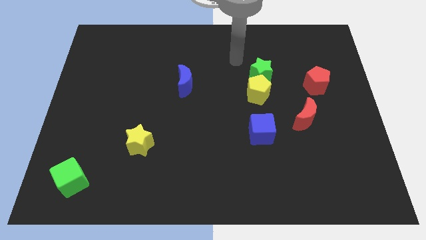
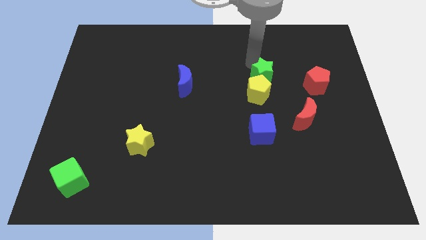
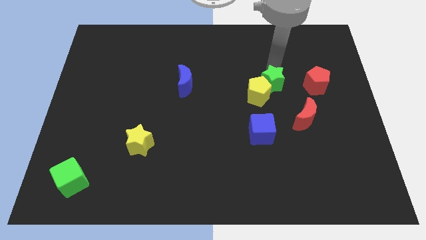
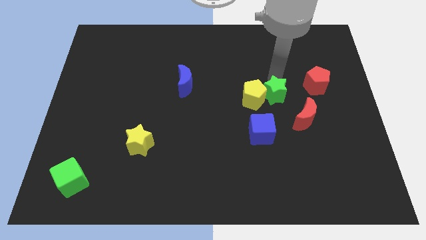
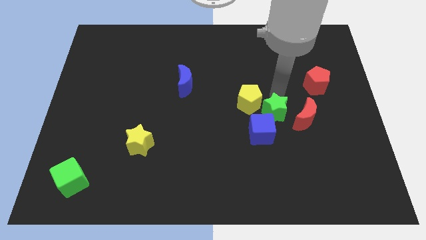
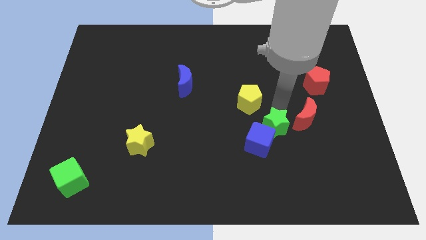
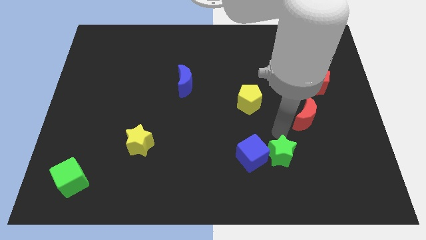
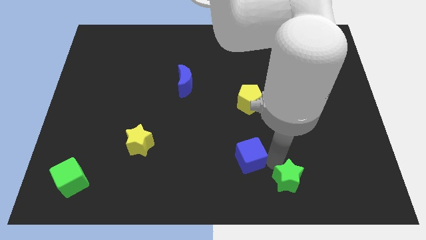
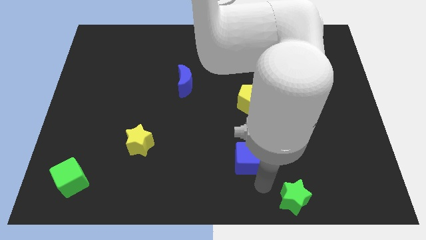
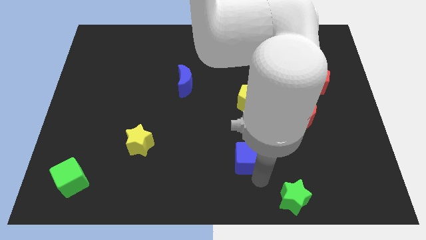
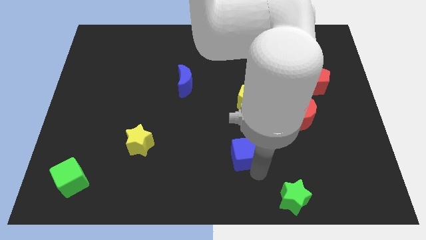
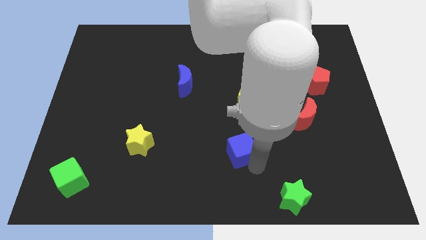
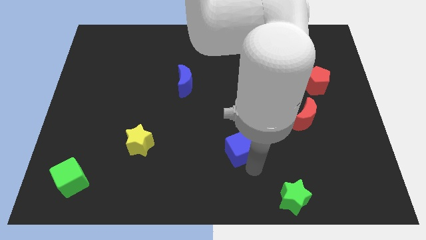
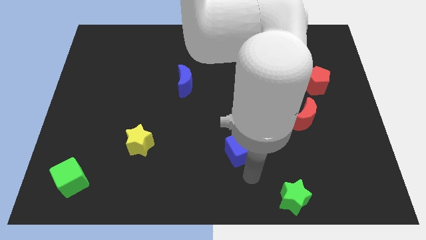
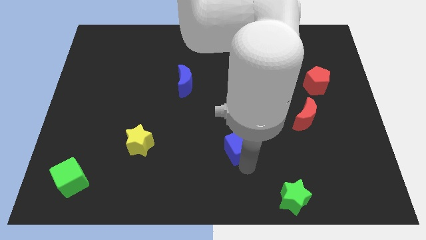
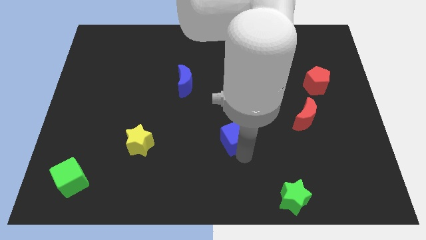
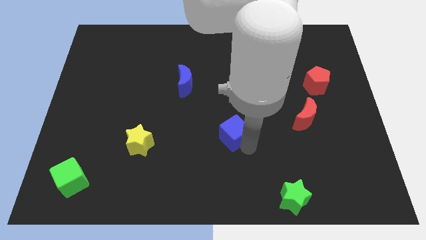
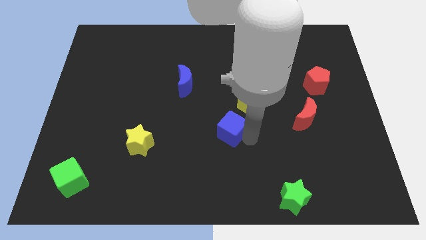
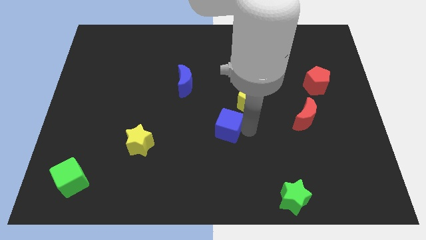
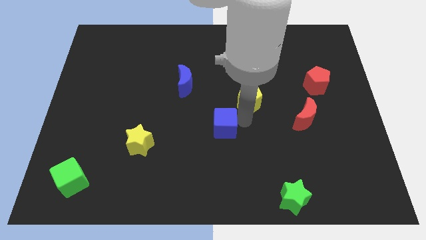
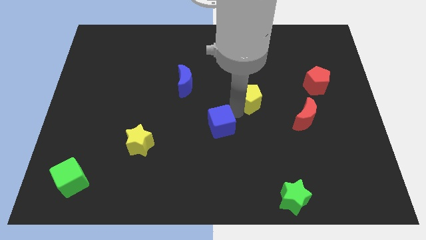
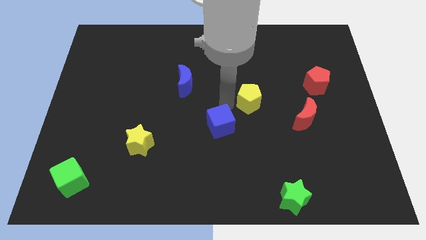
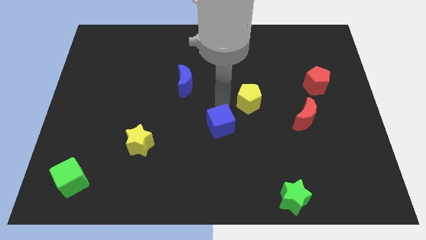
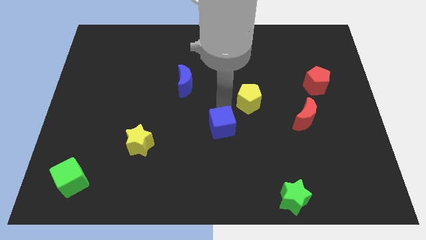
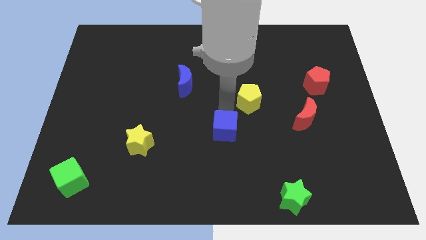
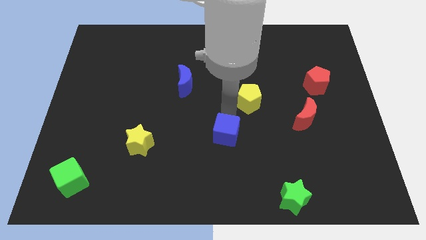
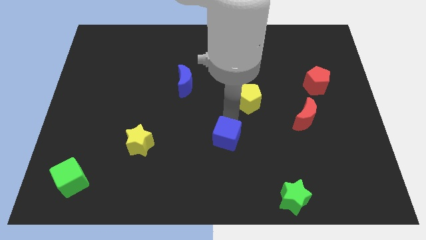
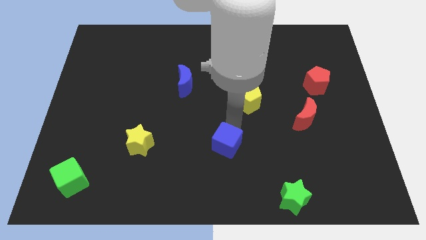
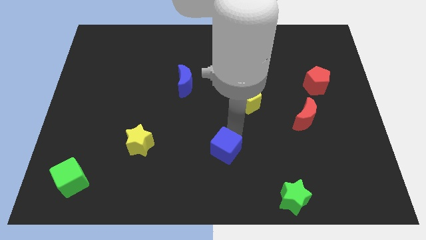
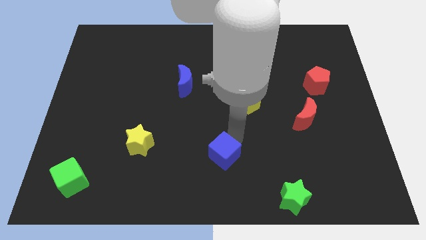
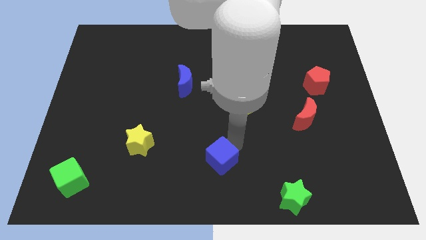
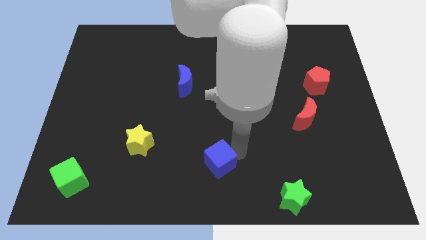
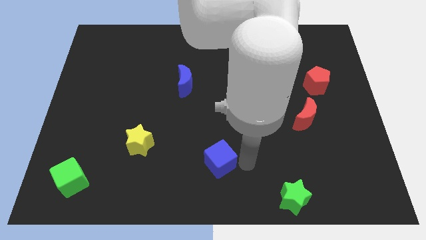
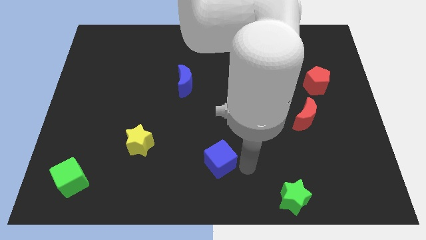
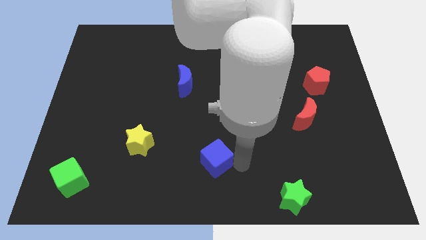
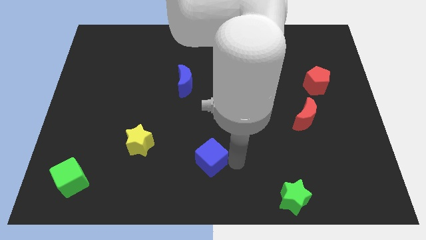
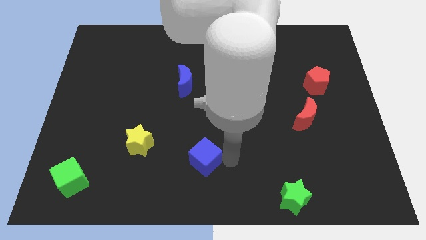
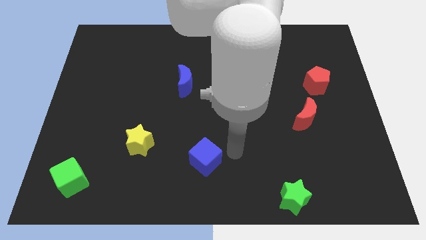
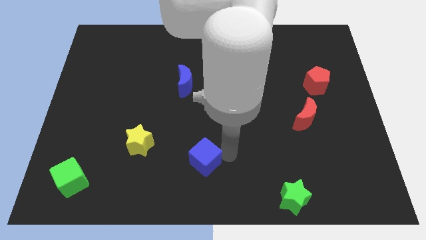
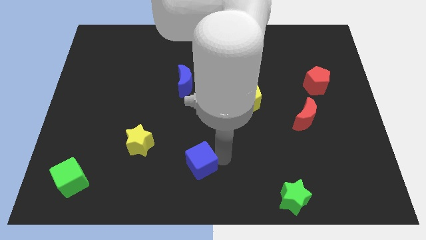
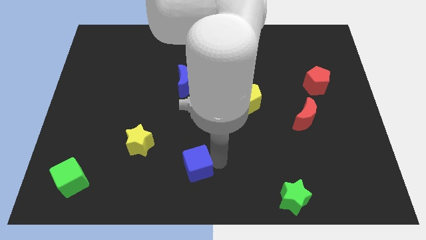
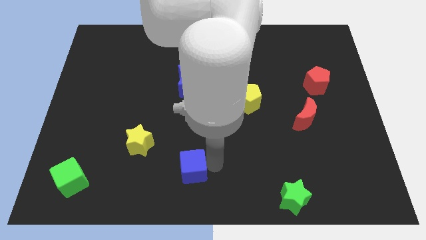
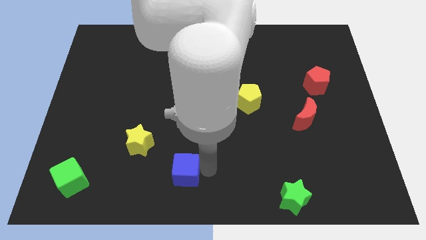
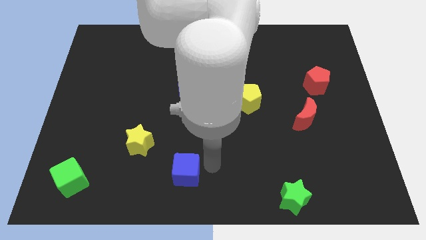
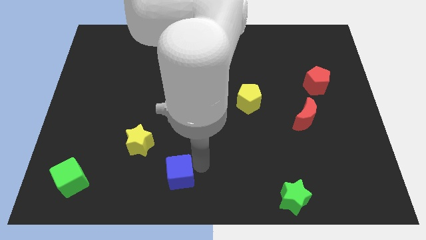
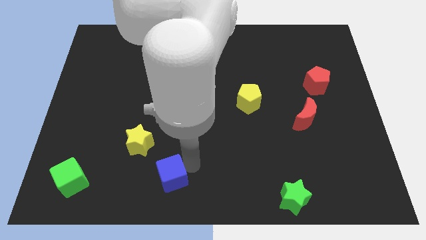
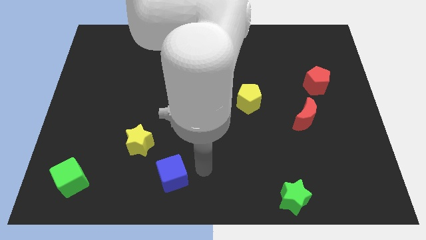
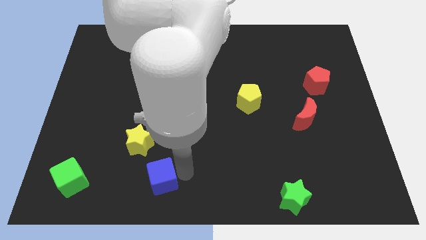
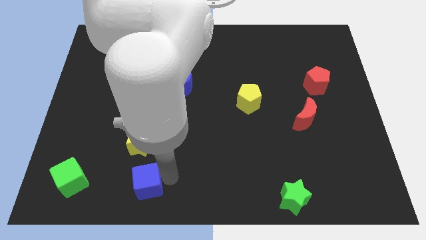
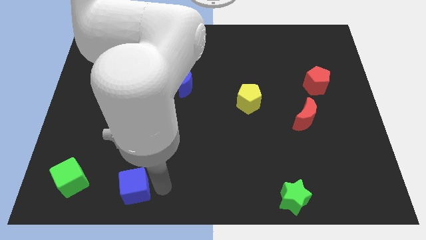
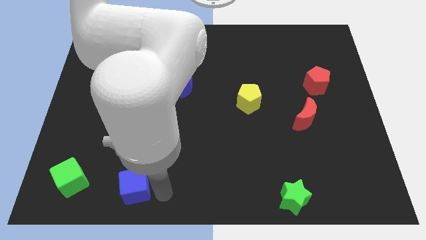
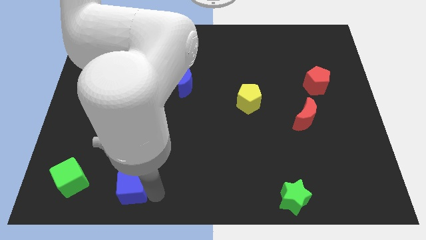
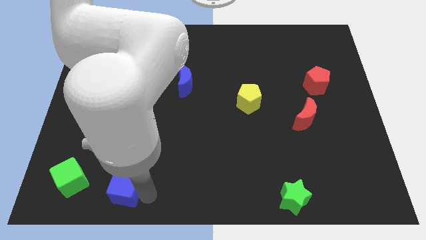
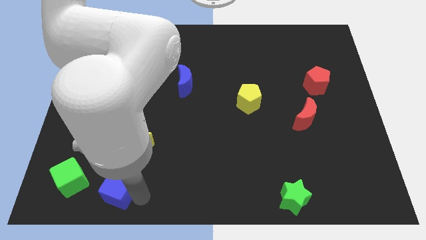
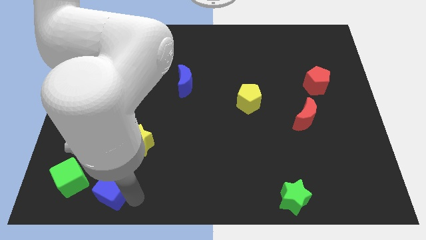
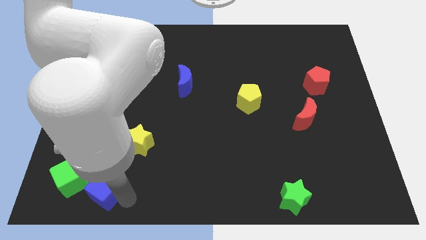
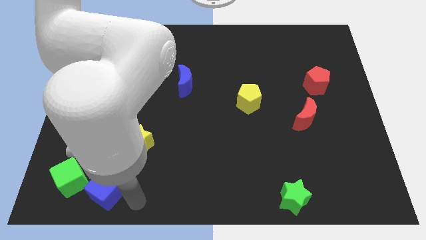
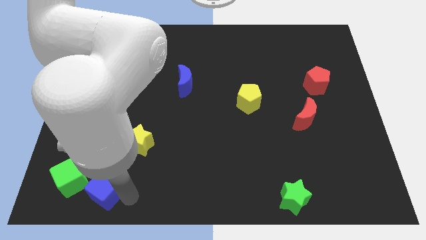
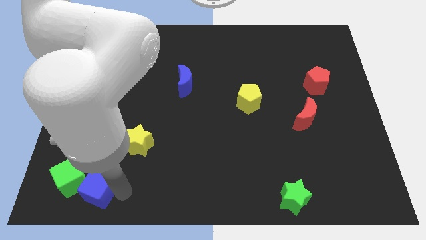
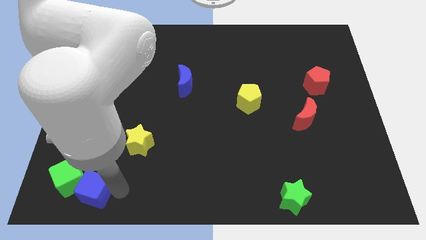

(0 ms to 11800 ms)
move the blue cube to the green cube
